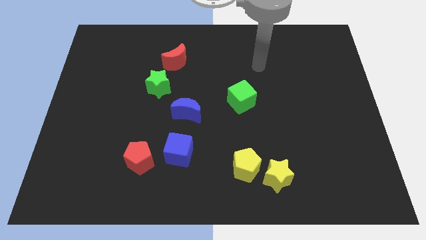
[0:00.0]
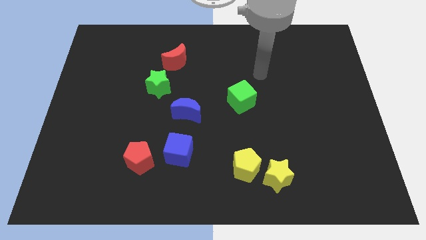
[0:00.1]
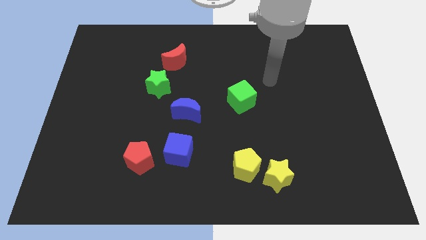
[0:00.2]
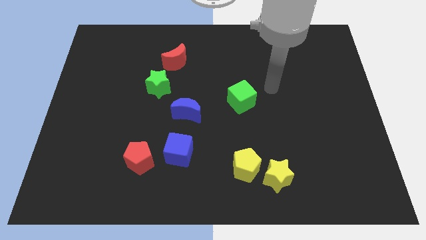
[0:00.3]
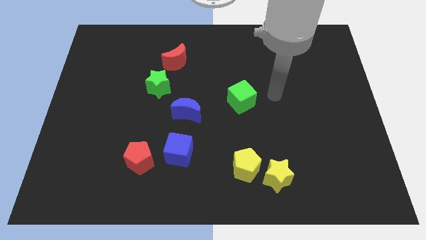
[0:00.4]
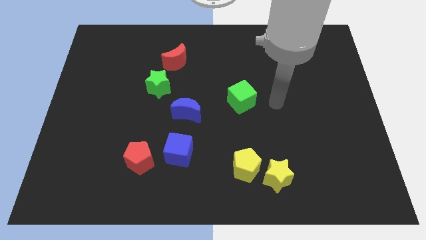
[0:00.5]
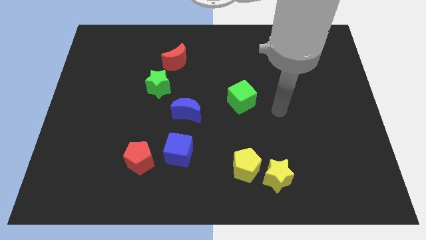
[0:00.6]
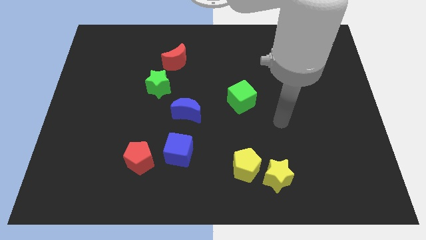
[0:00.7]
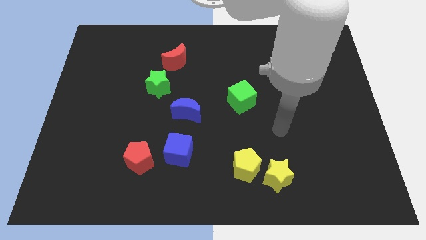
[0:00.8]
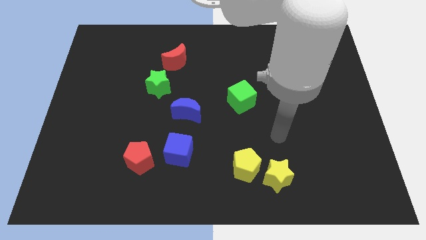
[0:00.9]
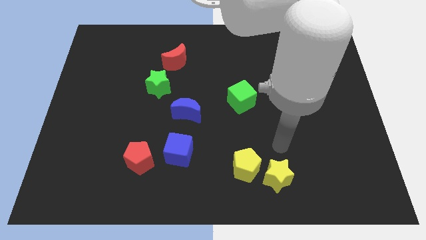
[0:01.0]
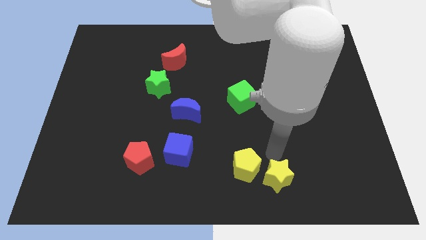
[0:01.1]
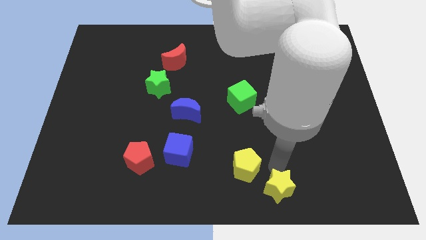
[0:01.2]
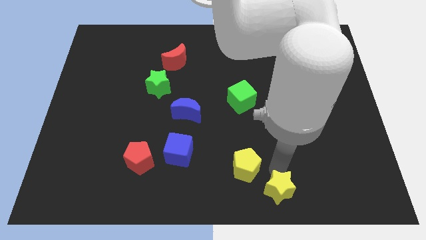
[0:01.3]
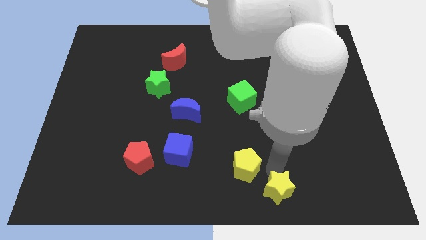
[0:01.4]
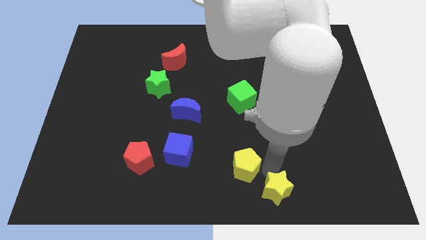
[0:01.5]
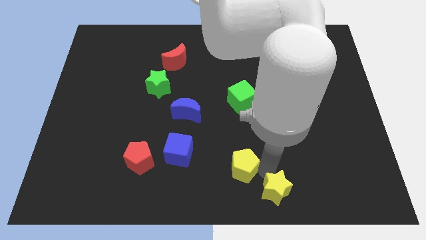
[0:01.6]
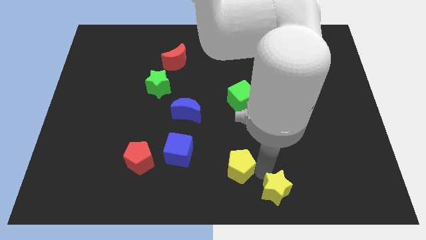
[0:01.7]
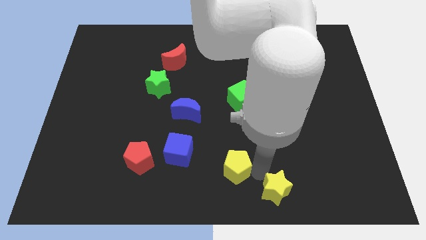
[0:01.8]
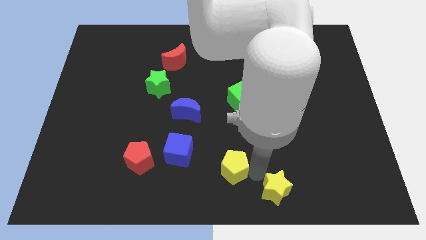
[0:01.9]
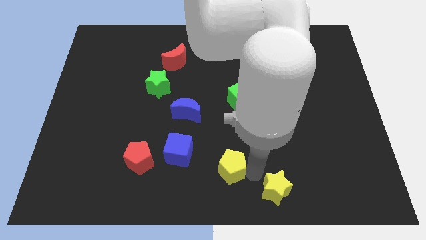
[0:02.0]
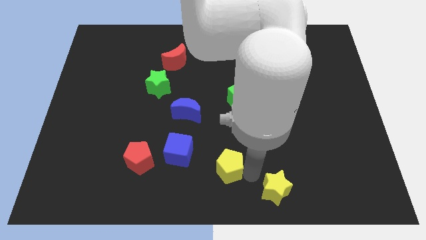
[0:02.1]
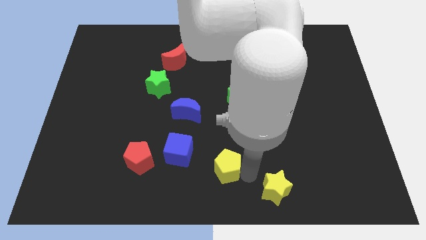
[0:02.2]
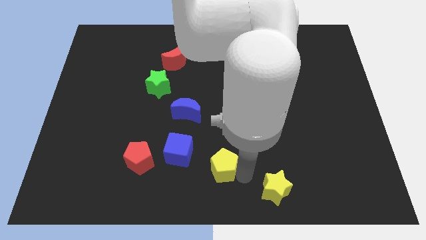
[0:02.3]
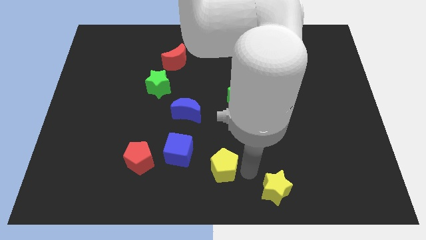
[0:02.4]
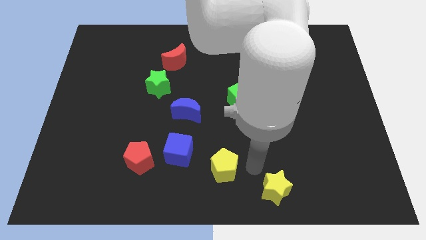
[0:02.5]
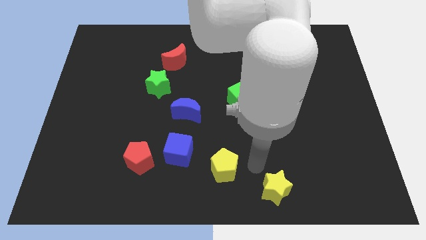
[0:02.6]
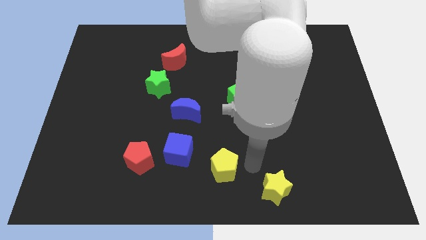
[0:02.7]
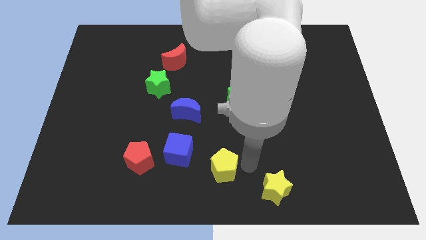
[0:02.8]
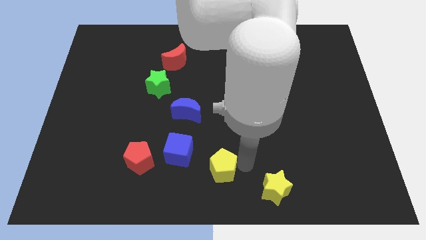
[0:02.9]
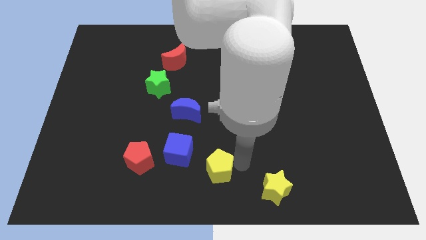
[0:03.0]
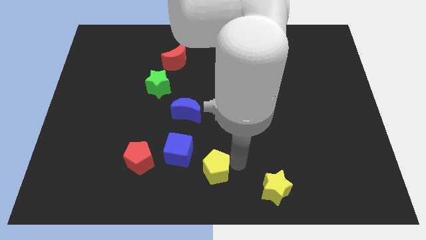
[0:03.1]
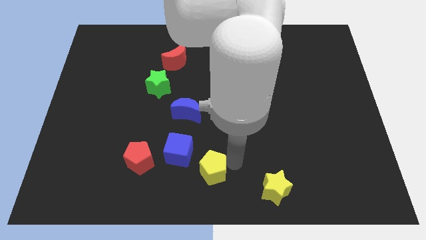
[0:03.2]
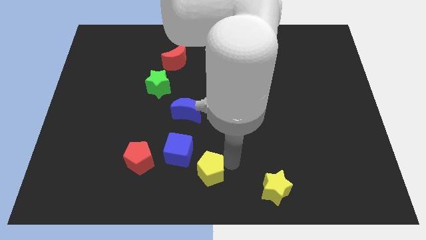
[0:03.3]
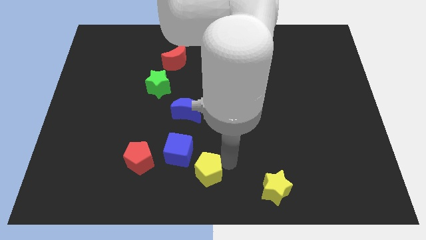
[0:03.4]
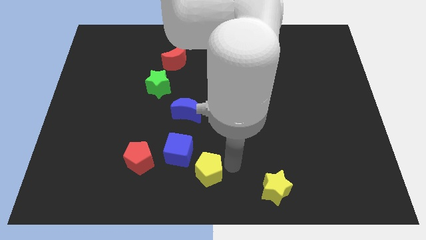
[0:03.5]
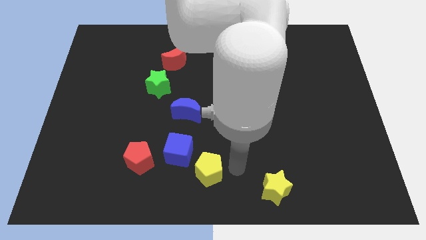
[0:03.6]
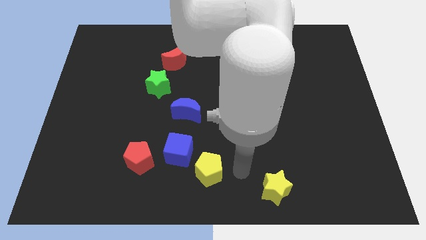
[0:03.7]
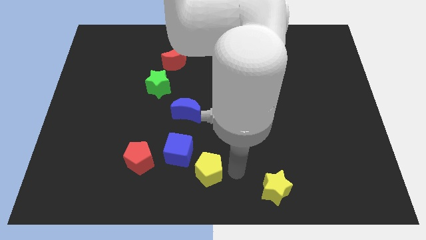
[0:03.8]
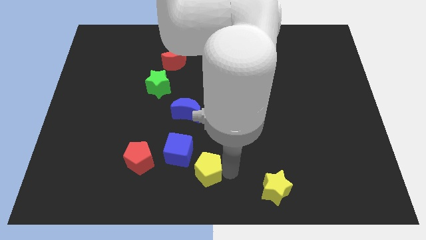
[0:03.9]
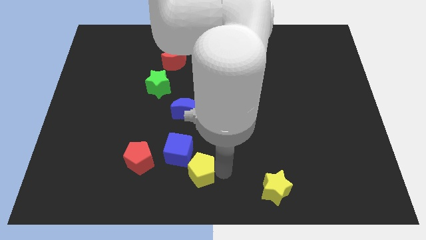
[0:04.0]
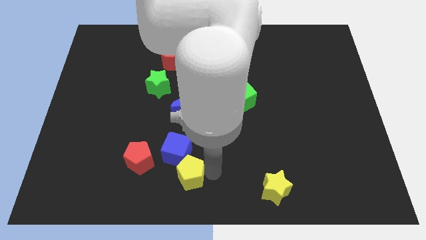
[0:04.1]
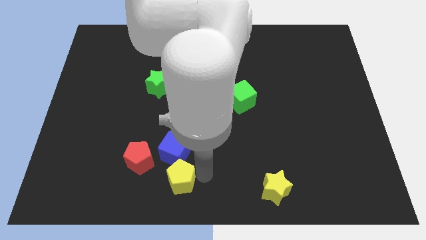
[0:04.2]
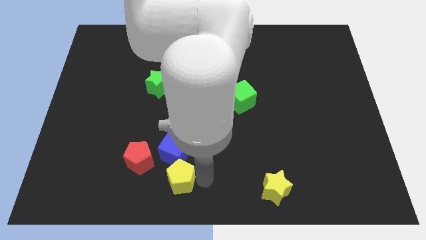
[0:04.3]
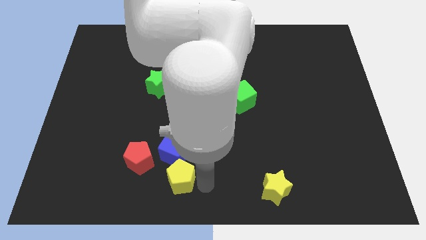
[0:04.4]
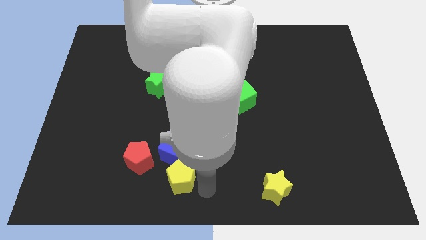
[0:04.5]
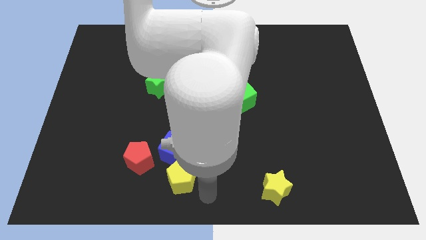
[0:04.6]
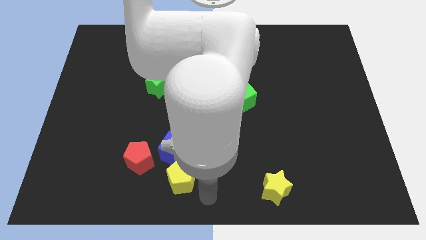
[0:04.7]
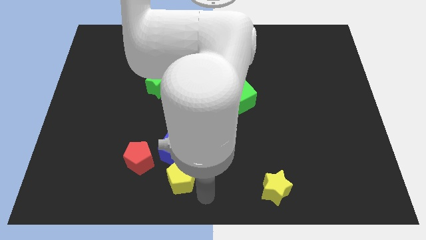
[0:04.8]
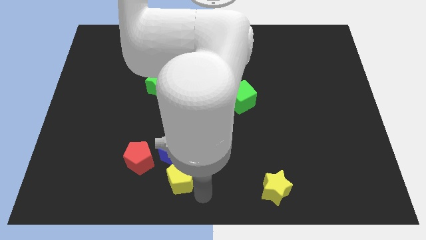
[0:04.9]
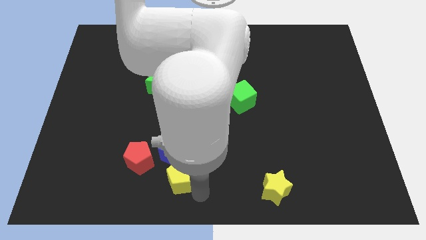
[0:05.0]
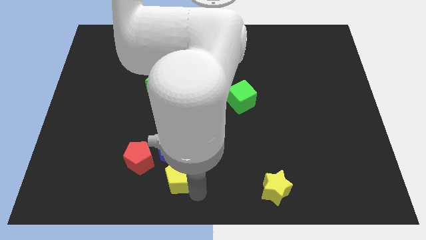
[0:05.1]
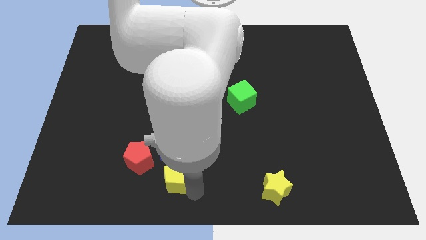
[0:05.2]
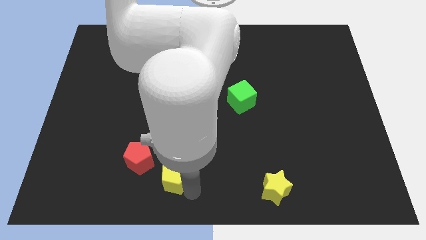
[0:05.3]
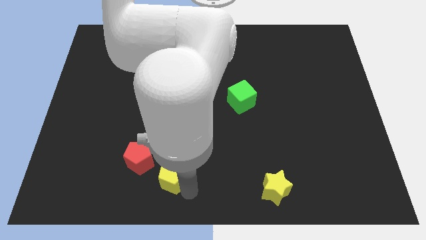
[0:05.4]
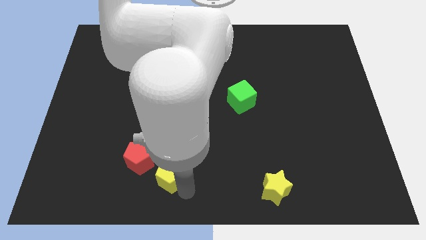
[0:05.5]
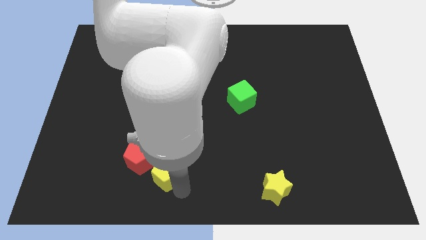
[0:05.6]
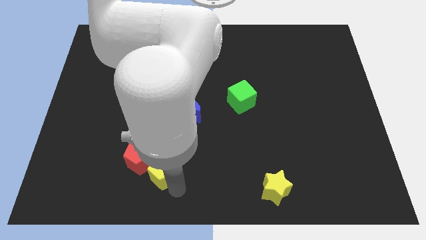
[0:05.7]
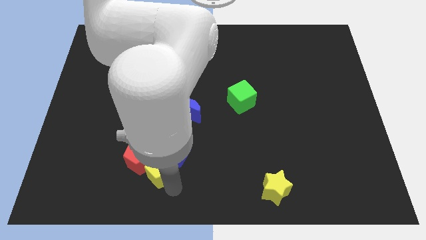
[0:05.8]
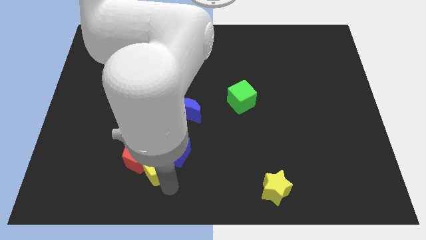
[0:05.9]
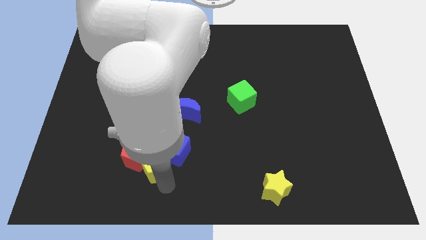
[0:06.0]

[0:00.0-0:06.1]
push the yellow pentagon left of the blue cube

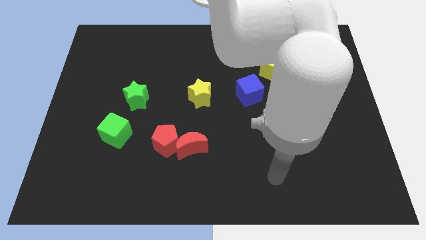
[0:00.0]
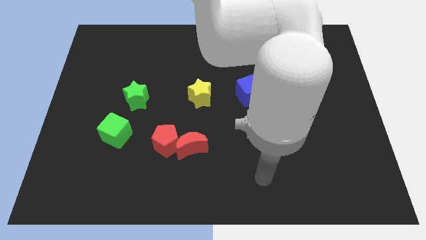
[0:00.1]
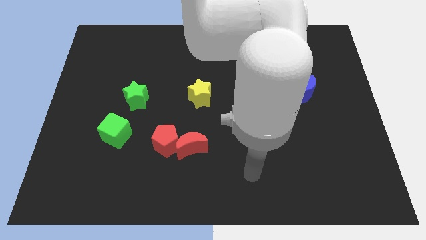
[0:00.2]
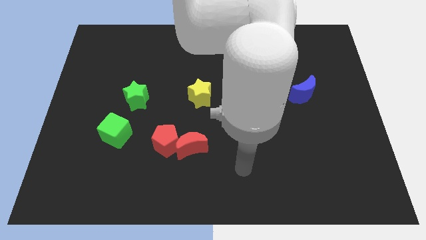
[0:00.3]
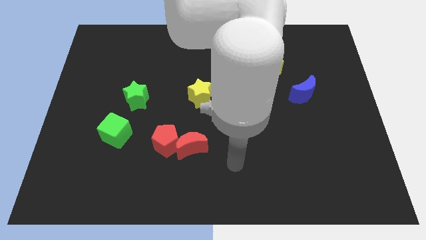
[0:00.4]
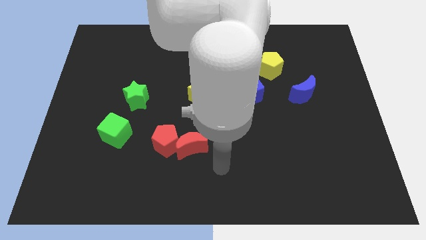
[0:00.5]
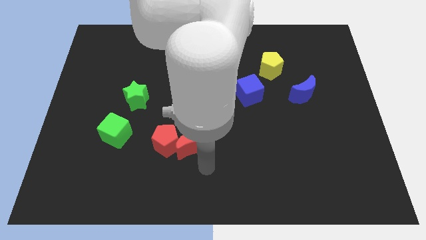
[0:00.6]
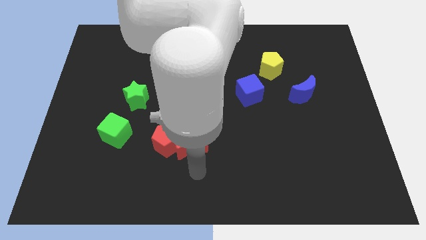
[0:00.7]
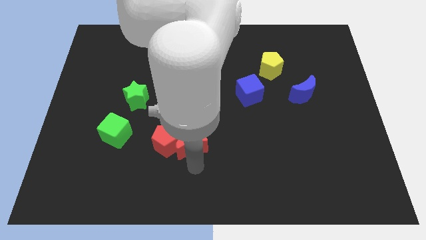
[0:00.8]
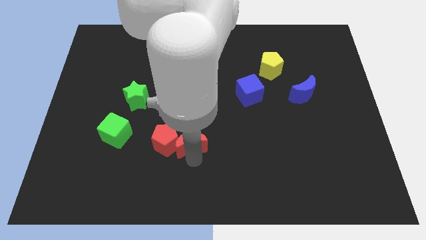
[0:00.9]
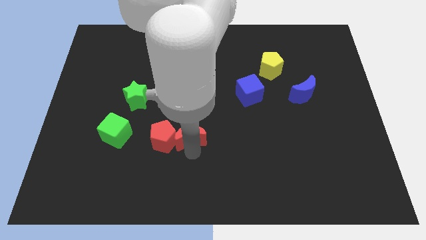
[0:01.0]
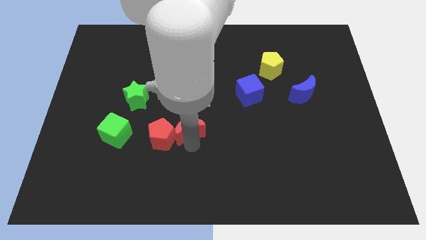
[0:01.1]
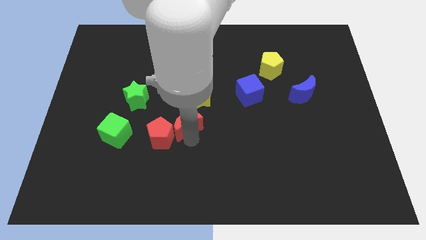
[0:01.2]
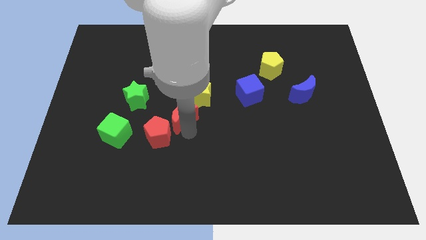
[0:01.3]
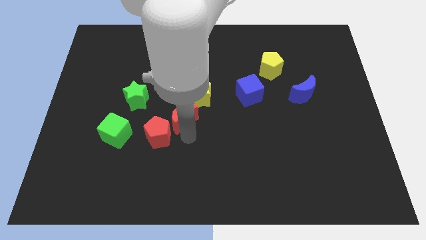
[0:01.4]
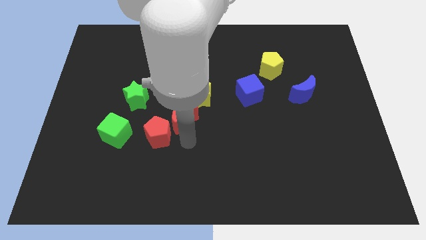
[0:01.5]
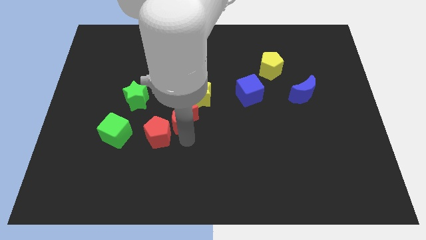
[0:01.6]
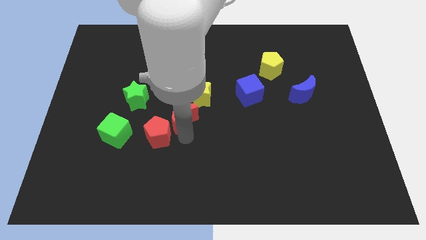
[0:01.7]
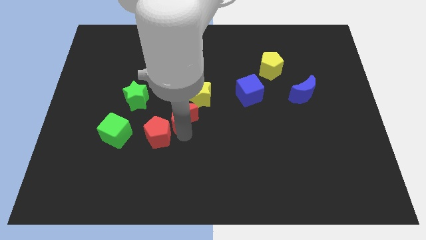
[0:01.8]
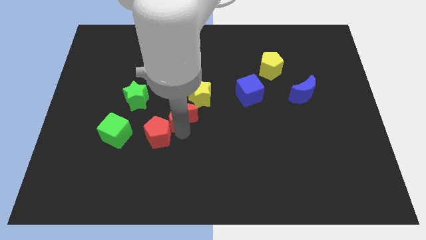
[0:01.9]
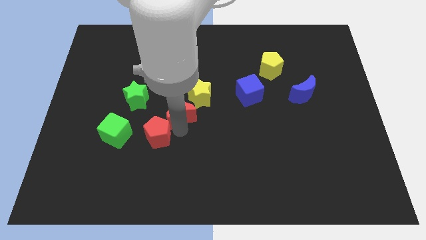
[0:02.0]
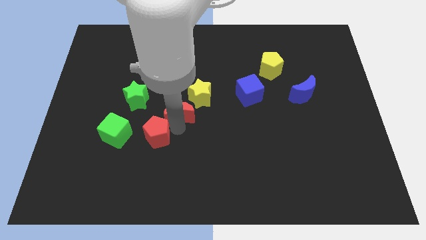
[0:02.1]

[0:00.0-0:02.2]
push the red moon to the right side of the green star
